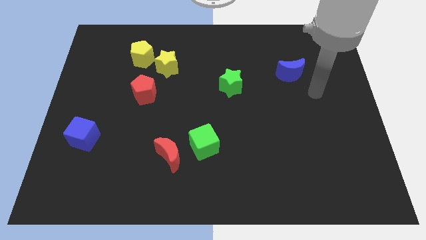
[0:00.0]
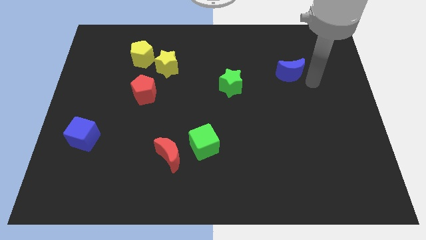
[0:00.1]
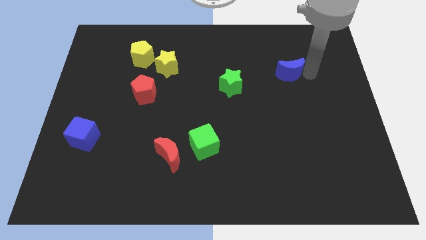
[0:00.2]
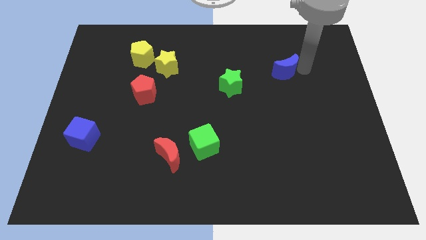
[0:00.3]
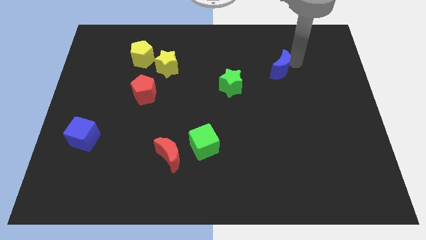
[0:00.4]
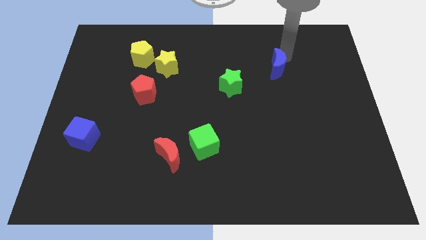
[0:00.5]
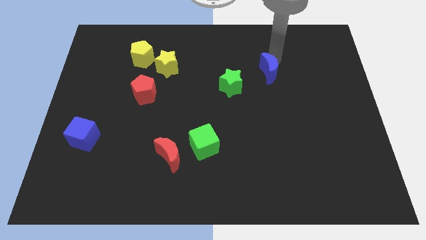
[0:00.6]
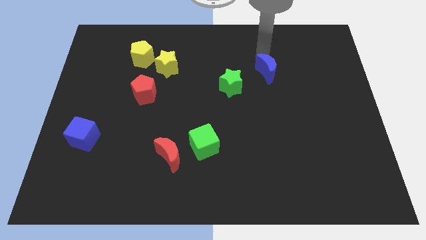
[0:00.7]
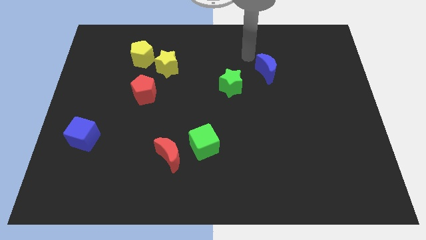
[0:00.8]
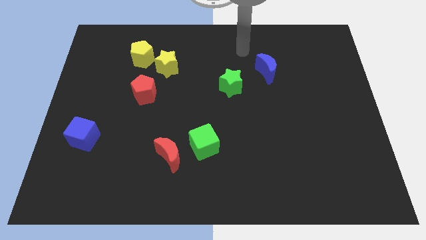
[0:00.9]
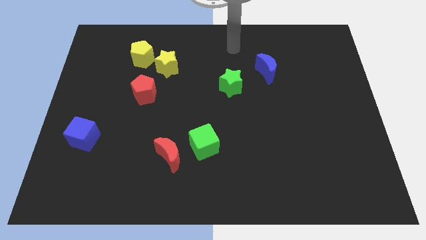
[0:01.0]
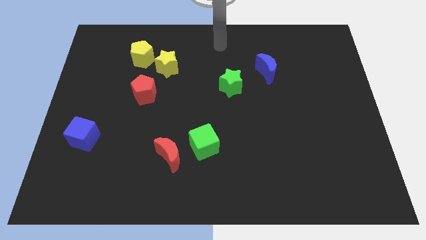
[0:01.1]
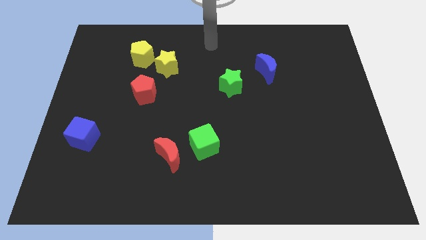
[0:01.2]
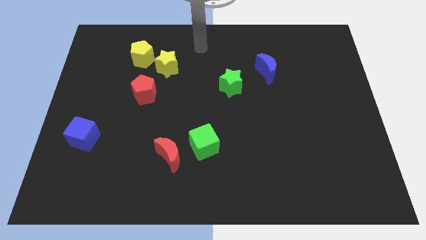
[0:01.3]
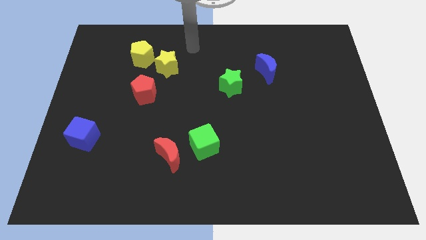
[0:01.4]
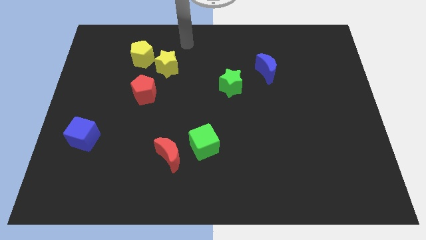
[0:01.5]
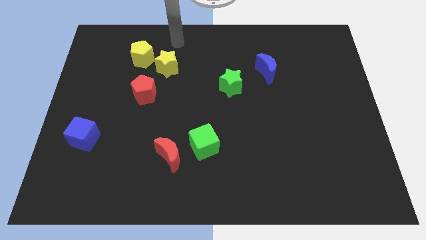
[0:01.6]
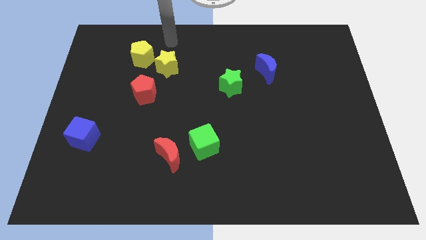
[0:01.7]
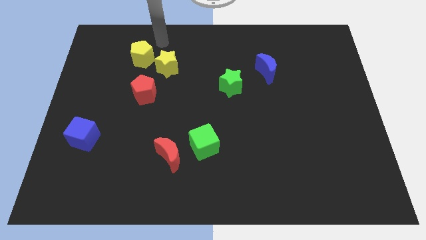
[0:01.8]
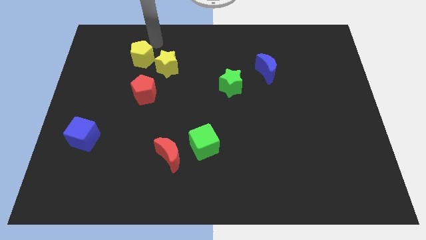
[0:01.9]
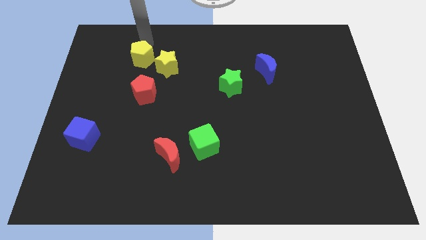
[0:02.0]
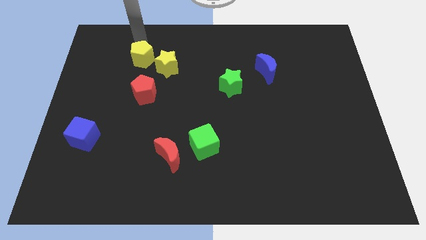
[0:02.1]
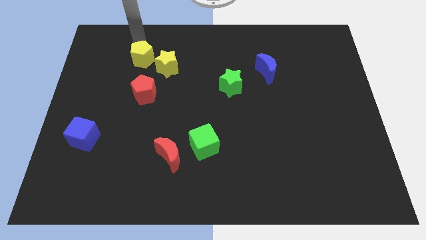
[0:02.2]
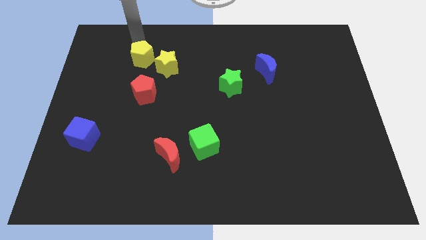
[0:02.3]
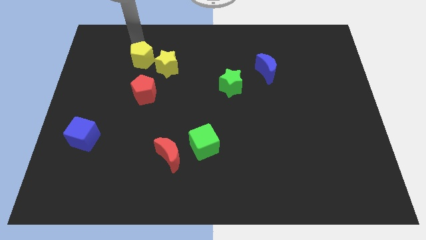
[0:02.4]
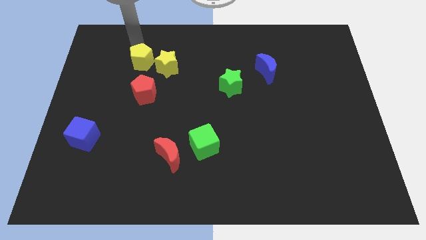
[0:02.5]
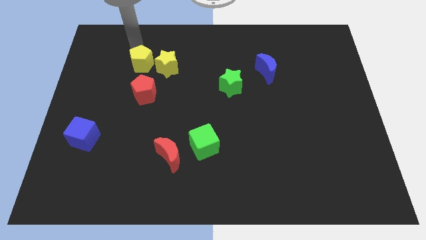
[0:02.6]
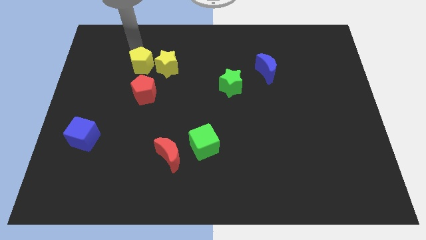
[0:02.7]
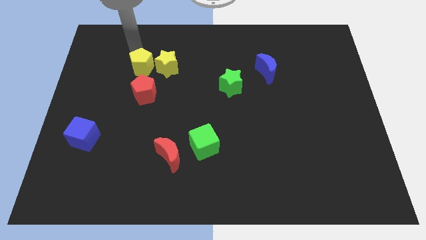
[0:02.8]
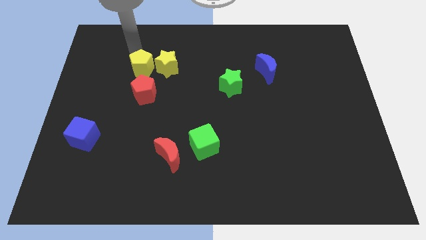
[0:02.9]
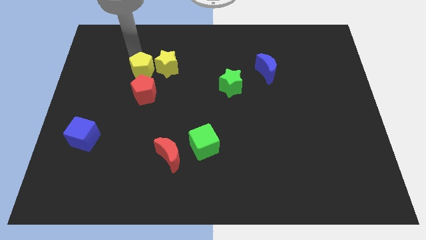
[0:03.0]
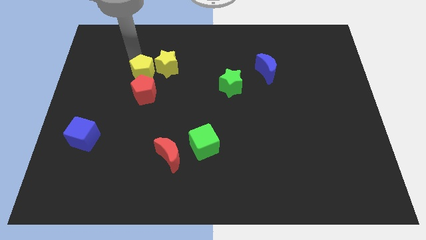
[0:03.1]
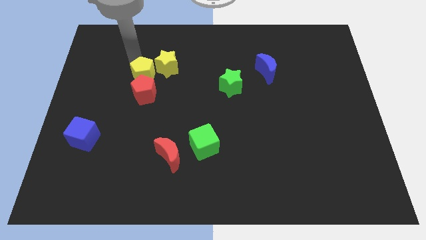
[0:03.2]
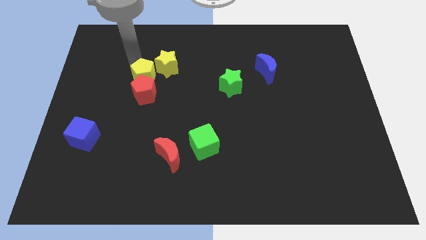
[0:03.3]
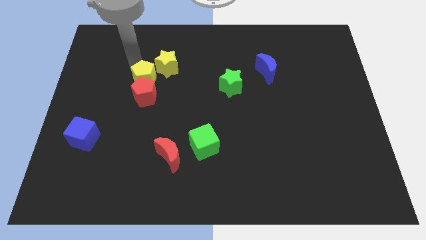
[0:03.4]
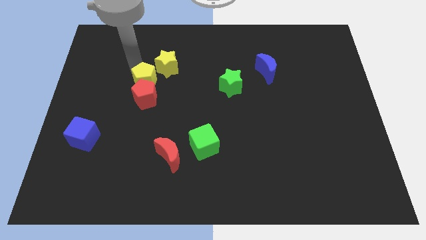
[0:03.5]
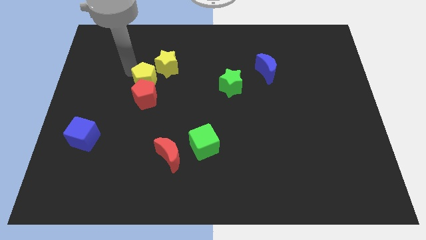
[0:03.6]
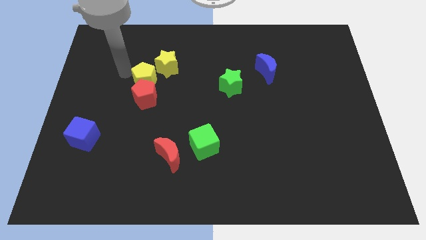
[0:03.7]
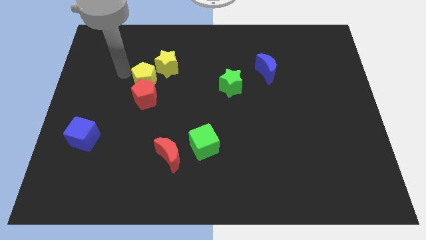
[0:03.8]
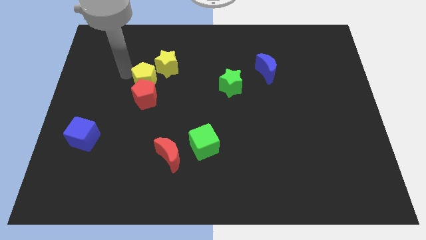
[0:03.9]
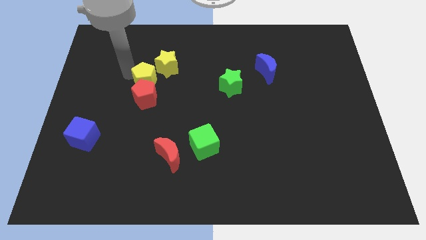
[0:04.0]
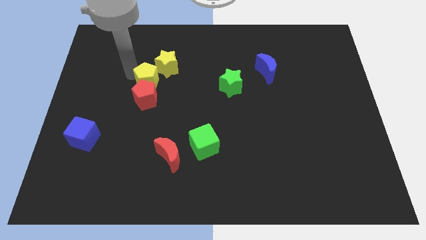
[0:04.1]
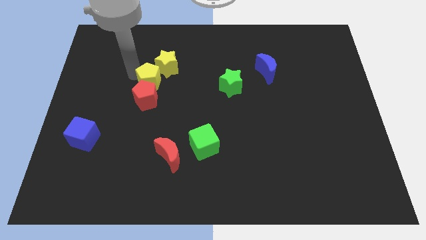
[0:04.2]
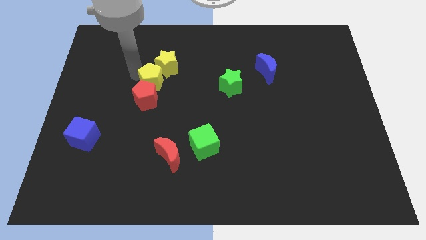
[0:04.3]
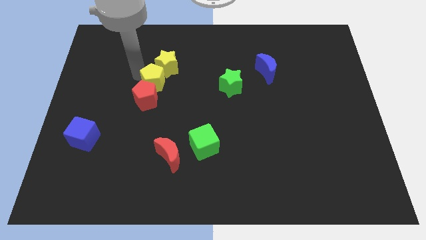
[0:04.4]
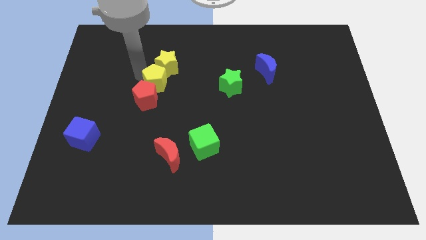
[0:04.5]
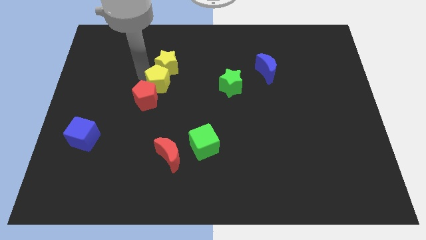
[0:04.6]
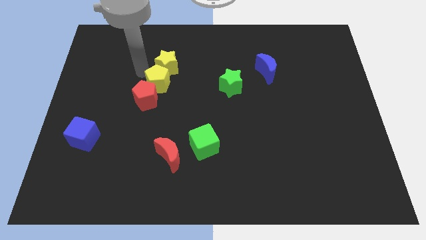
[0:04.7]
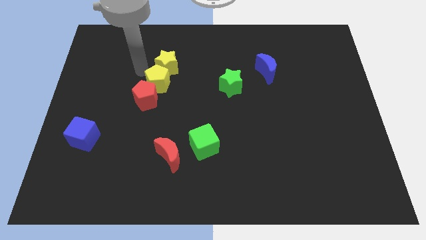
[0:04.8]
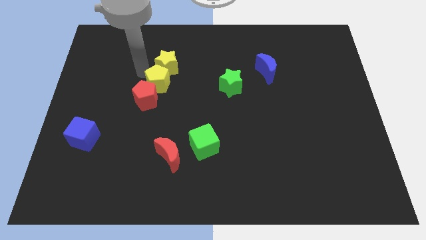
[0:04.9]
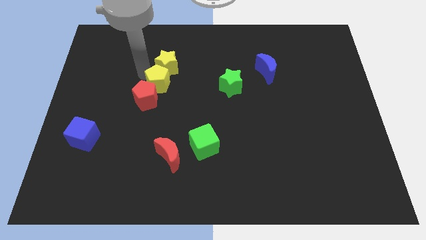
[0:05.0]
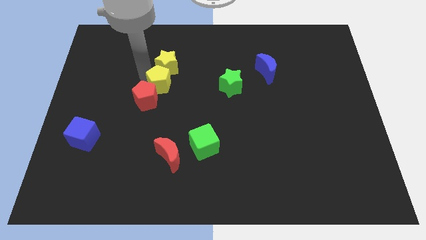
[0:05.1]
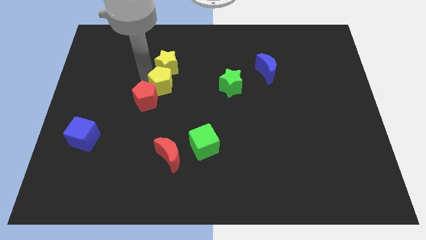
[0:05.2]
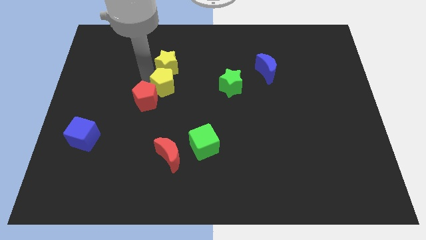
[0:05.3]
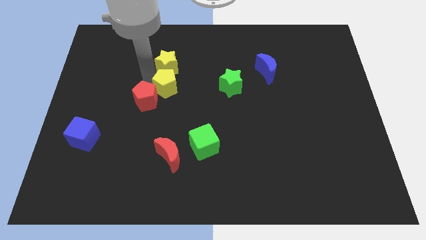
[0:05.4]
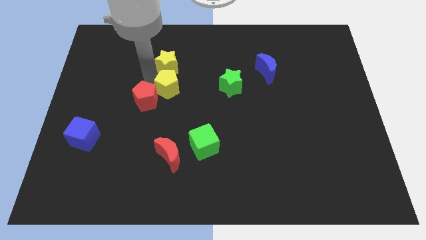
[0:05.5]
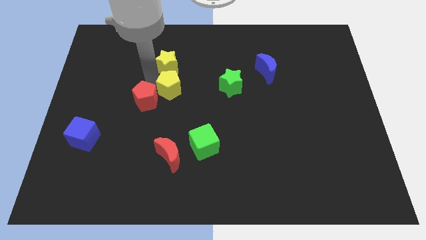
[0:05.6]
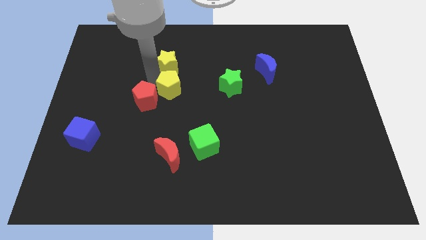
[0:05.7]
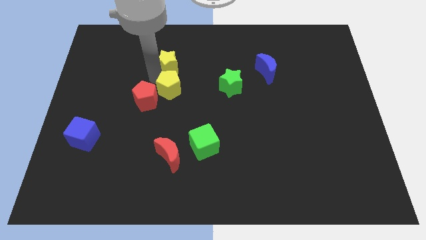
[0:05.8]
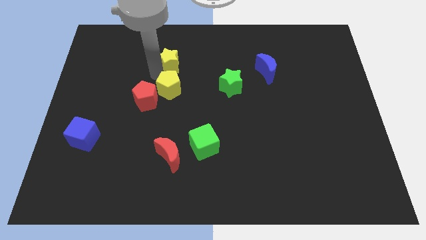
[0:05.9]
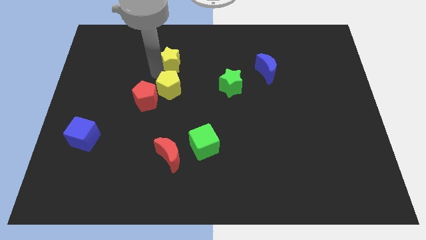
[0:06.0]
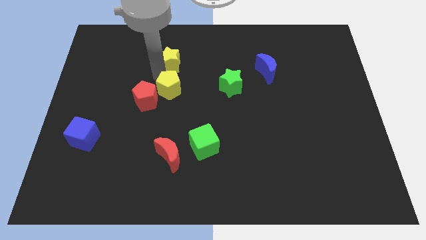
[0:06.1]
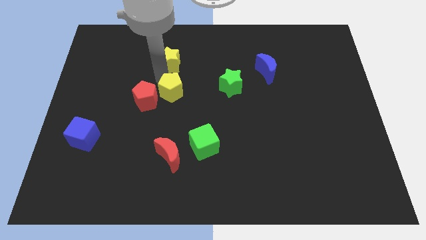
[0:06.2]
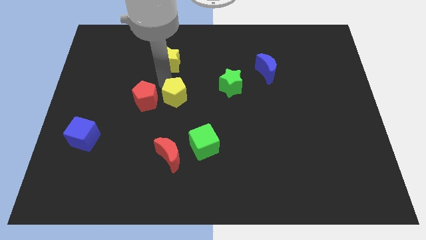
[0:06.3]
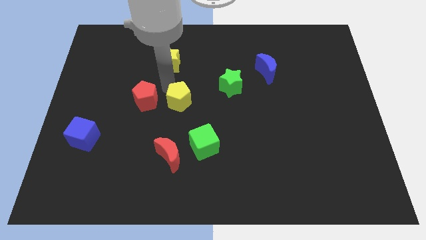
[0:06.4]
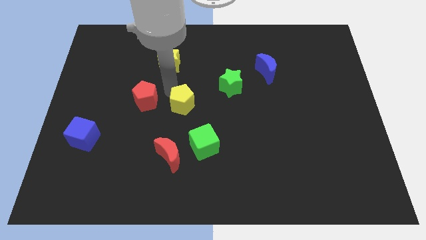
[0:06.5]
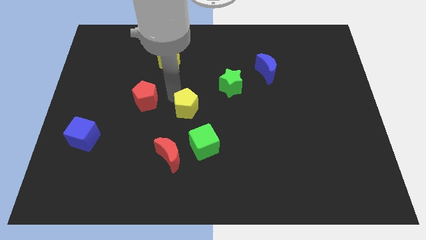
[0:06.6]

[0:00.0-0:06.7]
push the yellow pentagon down and right diagonally

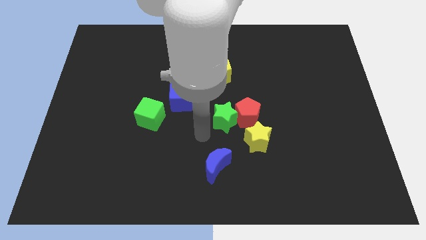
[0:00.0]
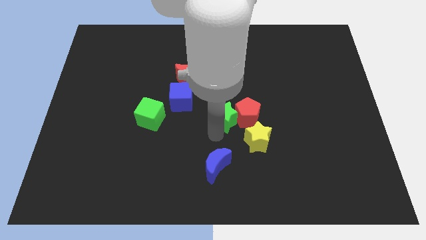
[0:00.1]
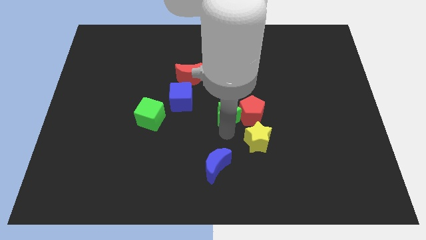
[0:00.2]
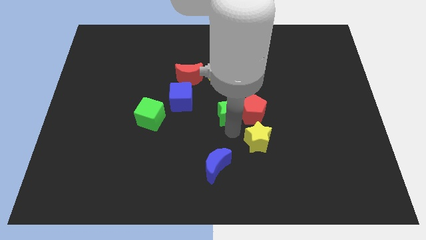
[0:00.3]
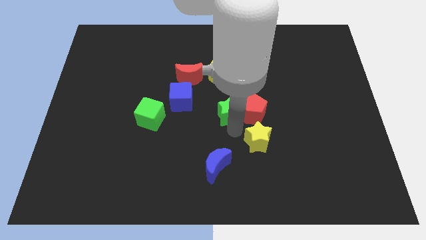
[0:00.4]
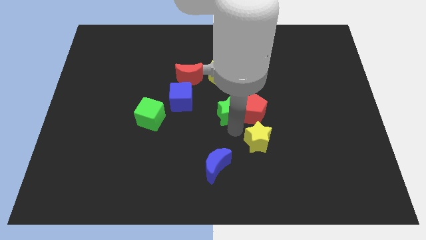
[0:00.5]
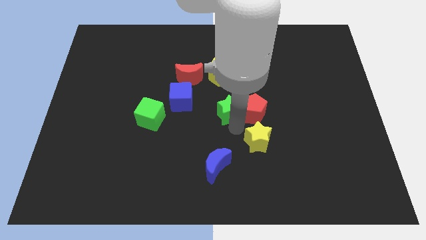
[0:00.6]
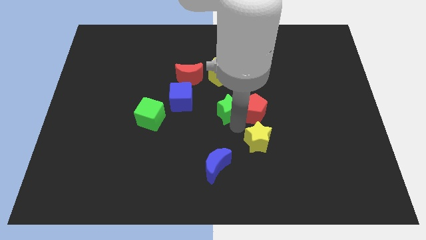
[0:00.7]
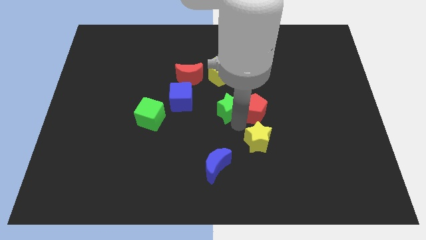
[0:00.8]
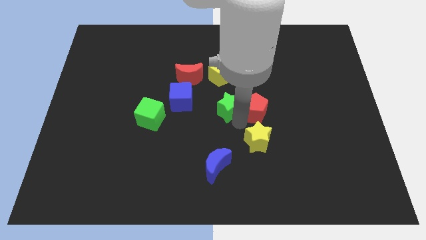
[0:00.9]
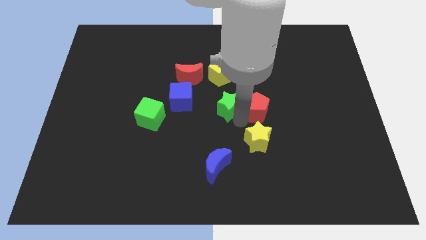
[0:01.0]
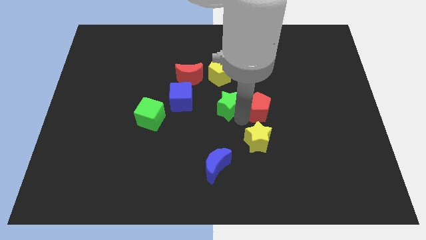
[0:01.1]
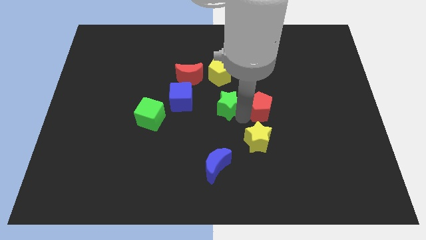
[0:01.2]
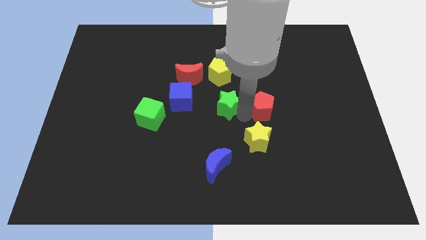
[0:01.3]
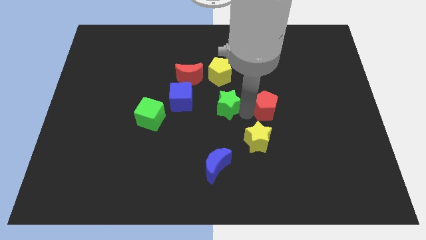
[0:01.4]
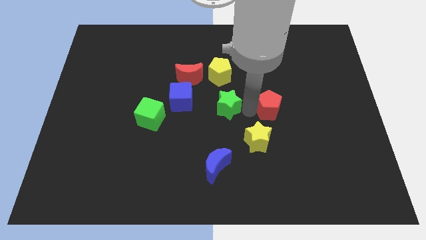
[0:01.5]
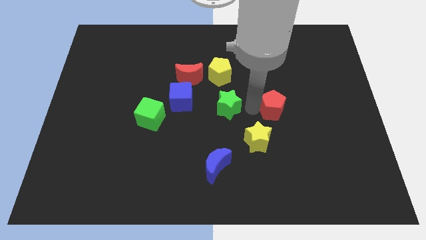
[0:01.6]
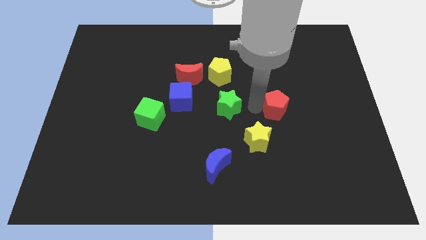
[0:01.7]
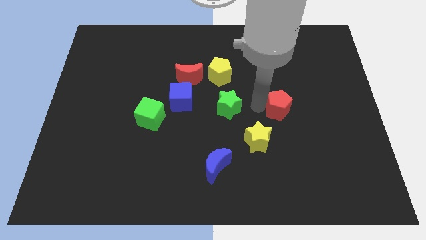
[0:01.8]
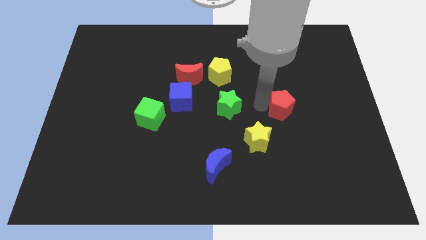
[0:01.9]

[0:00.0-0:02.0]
push the red pentagon diagonally up and to the right slightly
